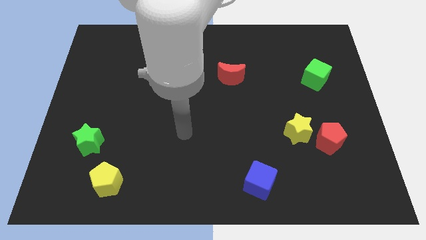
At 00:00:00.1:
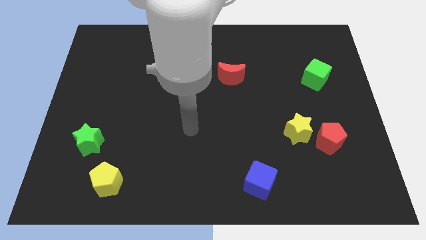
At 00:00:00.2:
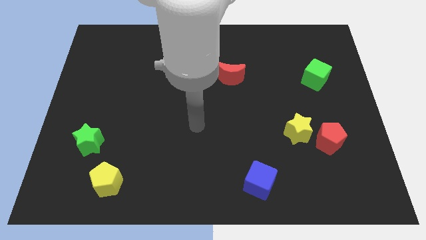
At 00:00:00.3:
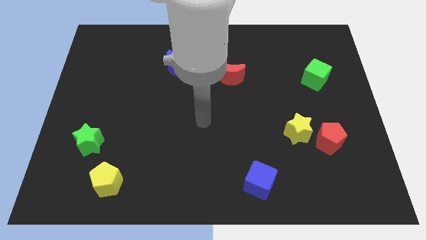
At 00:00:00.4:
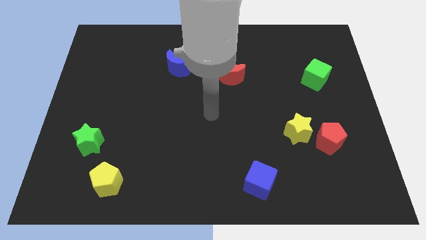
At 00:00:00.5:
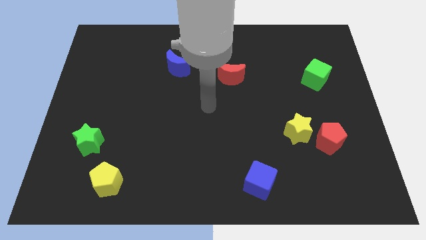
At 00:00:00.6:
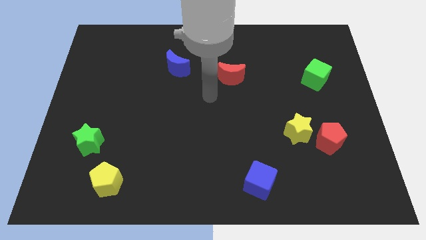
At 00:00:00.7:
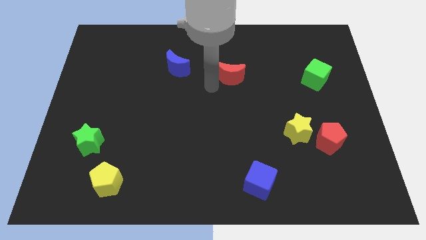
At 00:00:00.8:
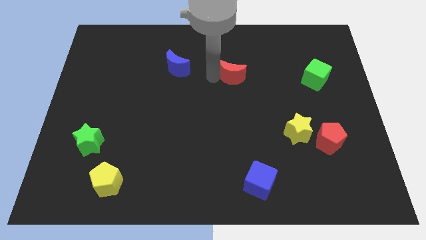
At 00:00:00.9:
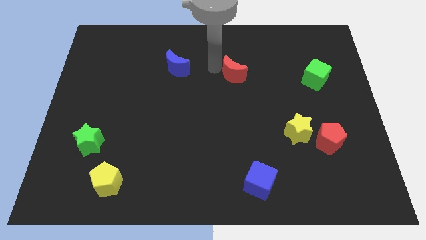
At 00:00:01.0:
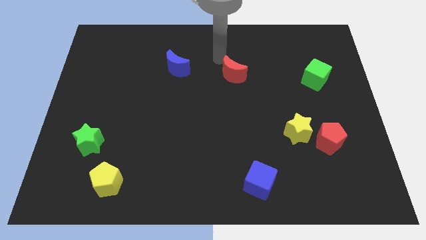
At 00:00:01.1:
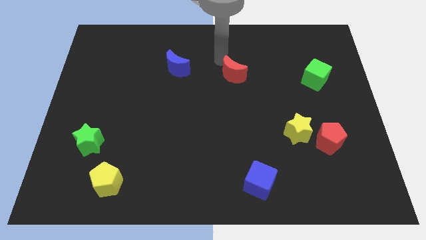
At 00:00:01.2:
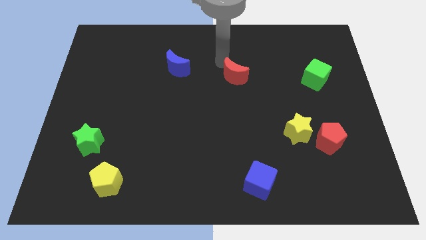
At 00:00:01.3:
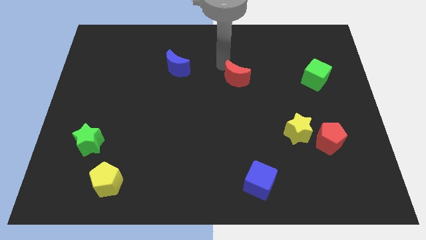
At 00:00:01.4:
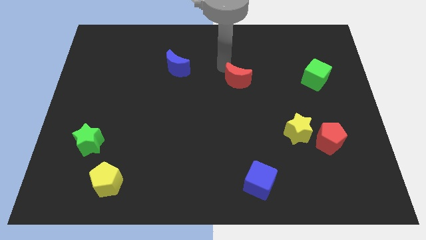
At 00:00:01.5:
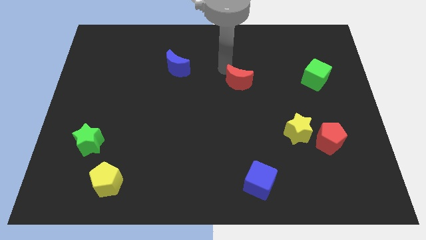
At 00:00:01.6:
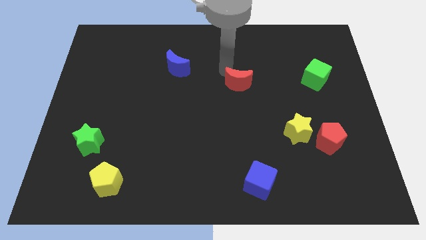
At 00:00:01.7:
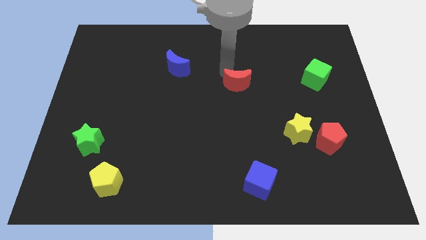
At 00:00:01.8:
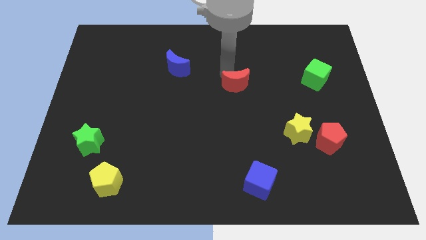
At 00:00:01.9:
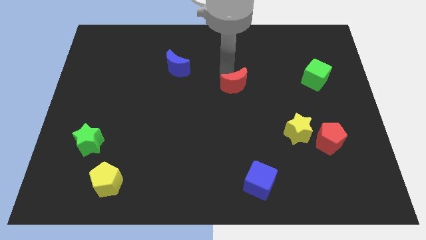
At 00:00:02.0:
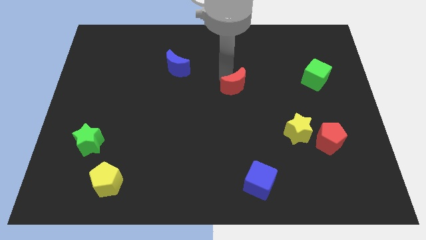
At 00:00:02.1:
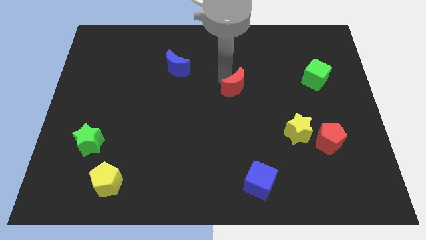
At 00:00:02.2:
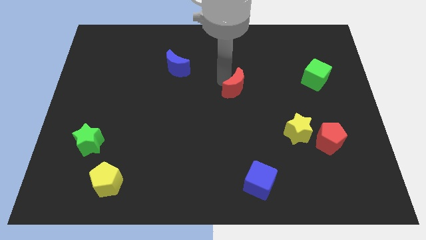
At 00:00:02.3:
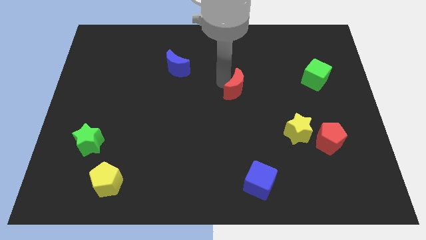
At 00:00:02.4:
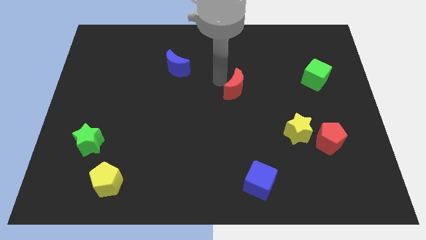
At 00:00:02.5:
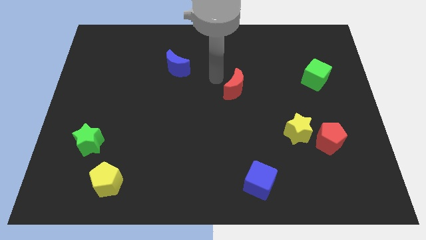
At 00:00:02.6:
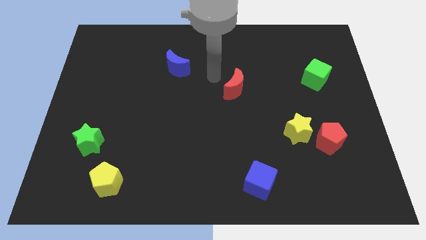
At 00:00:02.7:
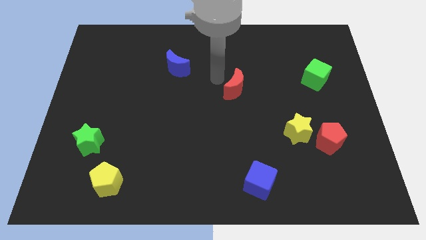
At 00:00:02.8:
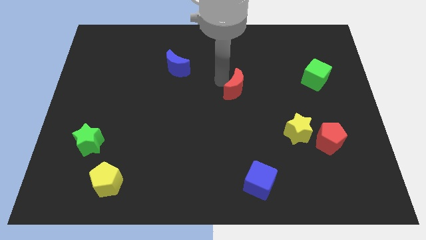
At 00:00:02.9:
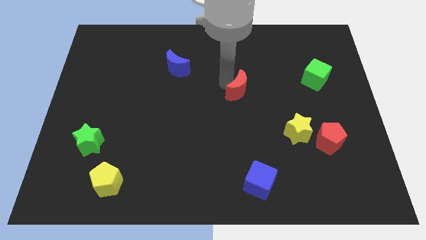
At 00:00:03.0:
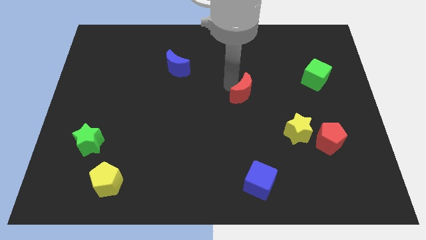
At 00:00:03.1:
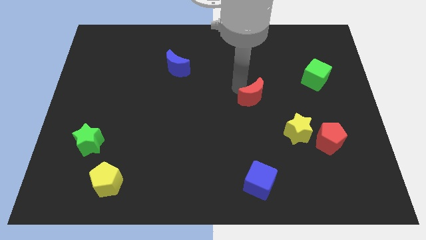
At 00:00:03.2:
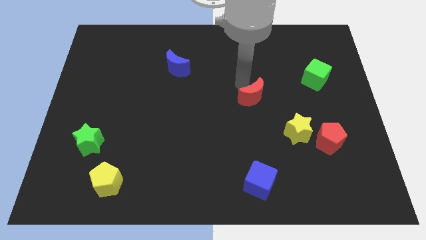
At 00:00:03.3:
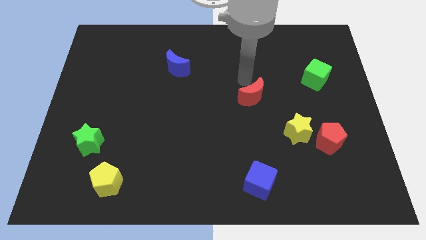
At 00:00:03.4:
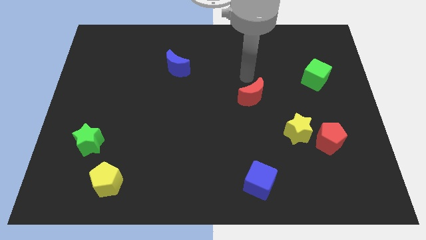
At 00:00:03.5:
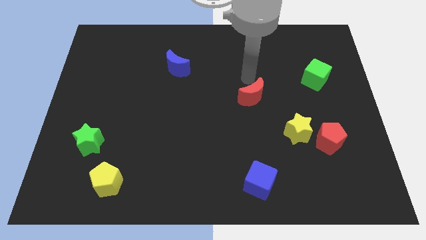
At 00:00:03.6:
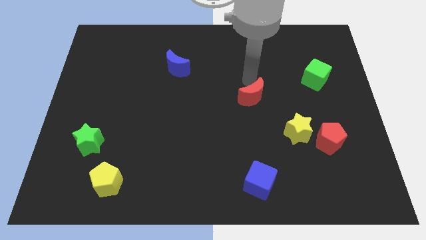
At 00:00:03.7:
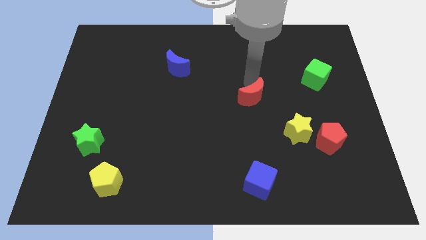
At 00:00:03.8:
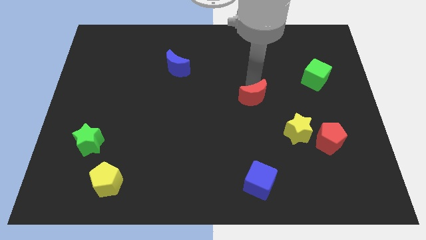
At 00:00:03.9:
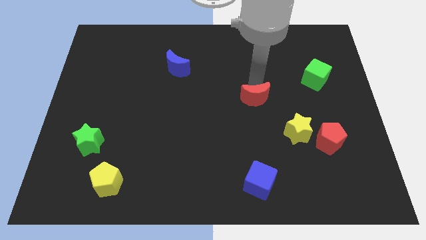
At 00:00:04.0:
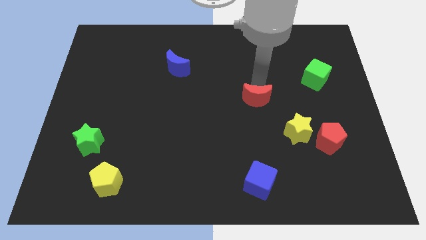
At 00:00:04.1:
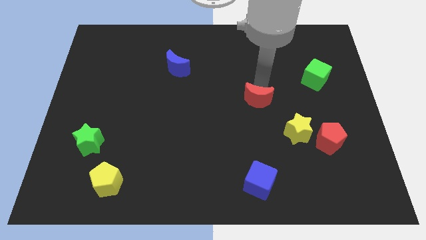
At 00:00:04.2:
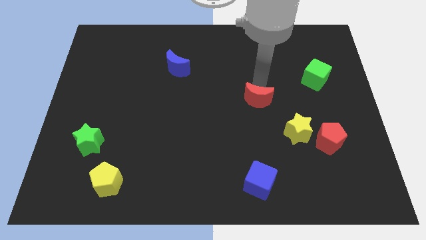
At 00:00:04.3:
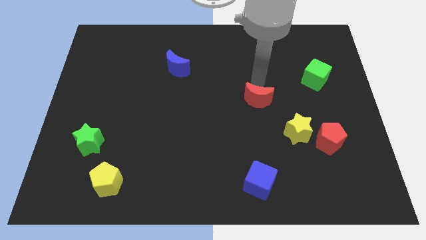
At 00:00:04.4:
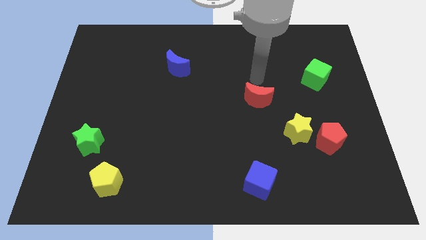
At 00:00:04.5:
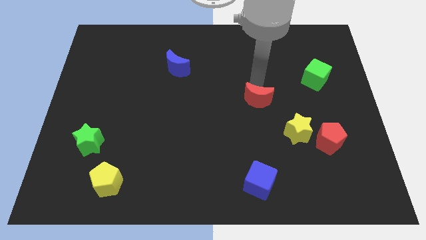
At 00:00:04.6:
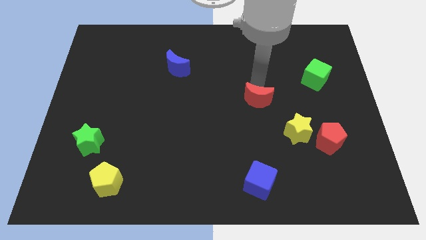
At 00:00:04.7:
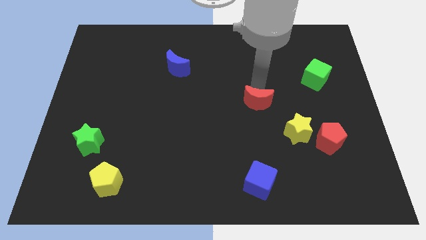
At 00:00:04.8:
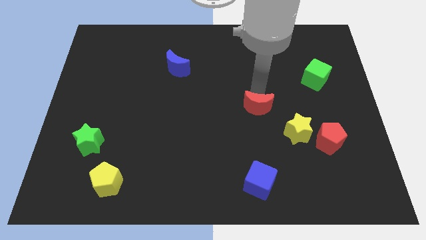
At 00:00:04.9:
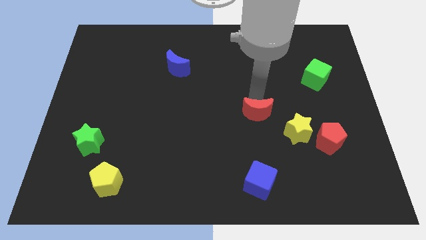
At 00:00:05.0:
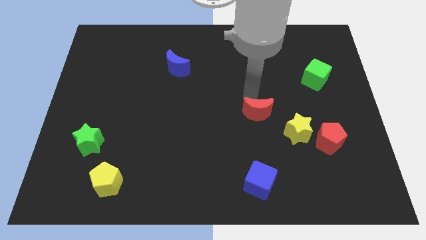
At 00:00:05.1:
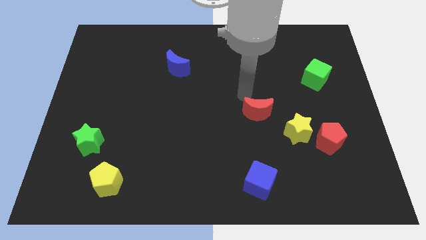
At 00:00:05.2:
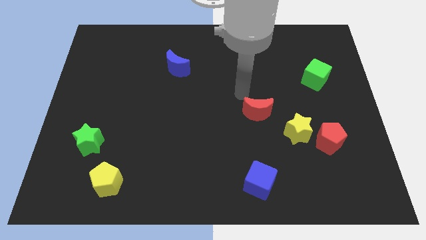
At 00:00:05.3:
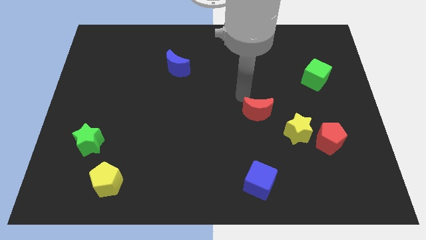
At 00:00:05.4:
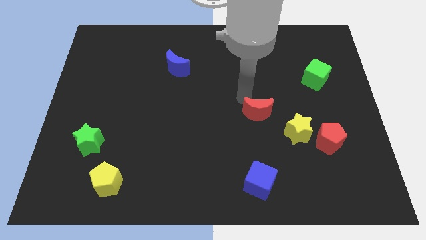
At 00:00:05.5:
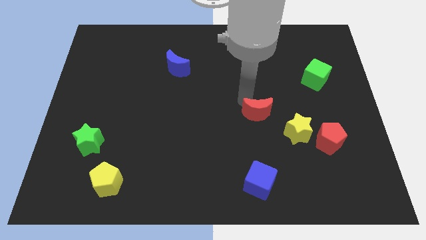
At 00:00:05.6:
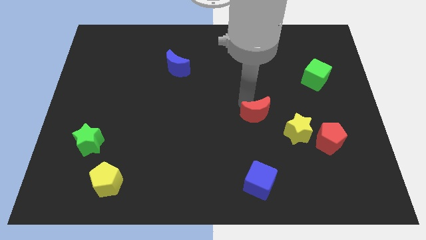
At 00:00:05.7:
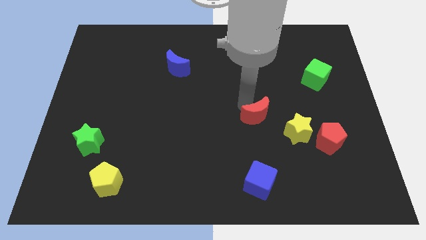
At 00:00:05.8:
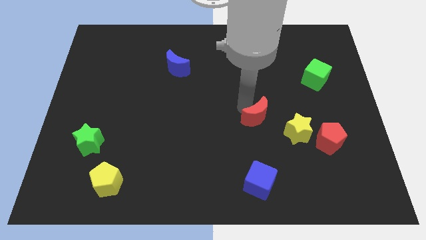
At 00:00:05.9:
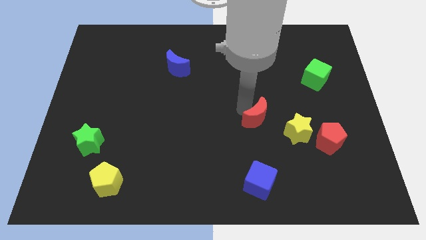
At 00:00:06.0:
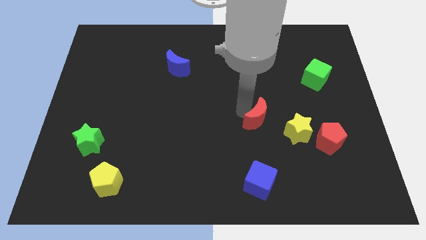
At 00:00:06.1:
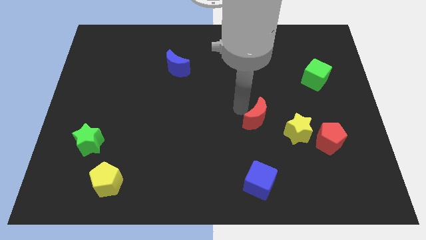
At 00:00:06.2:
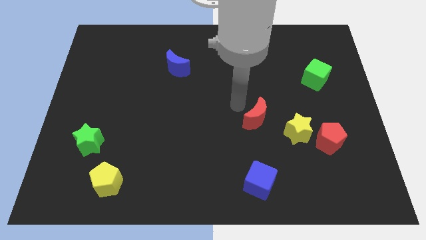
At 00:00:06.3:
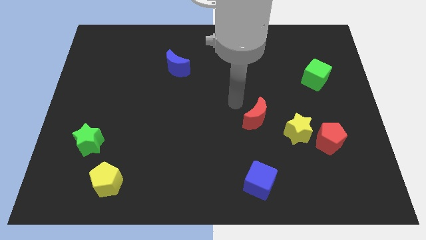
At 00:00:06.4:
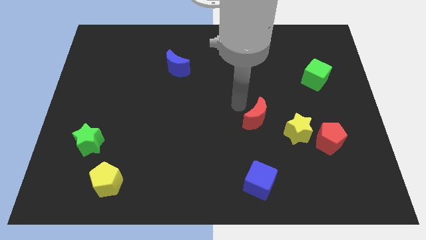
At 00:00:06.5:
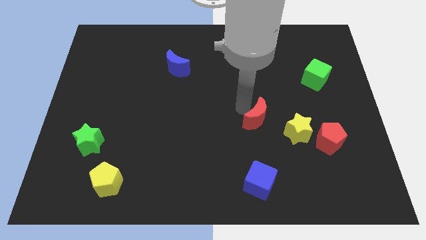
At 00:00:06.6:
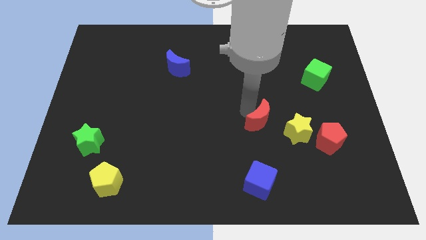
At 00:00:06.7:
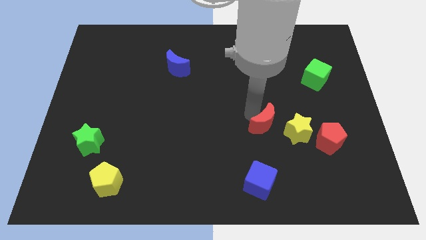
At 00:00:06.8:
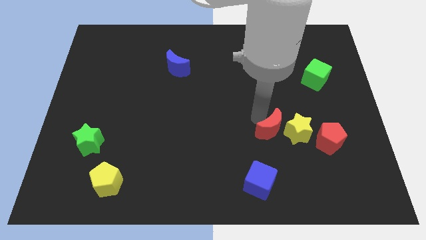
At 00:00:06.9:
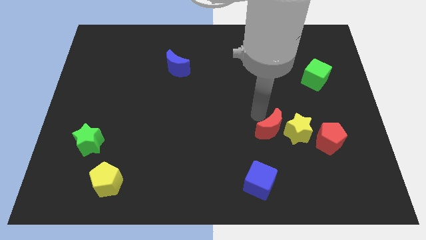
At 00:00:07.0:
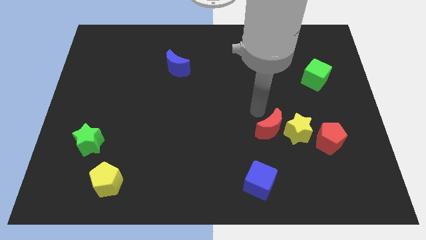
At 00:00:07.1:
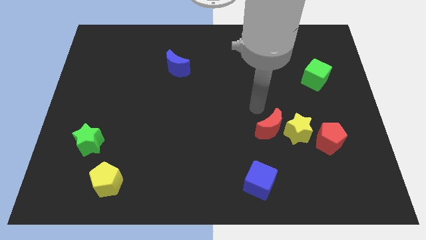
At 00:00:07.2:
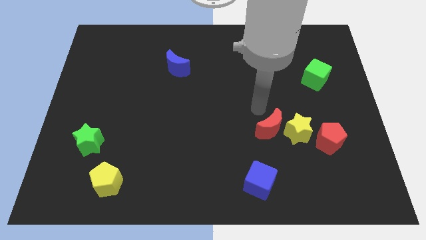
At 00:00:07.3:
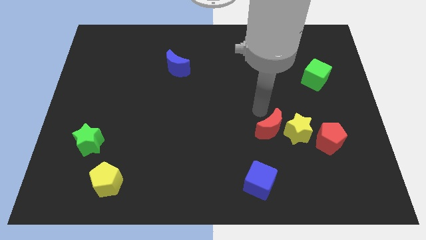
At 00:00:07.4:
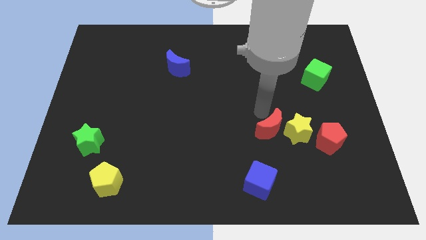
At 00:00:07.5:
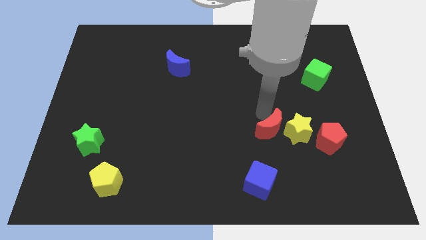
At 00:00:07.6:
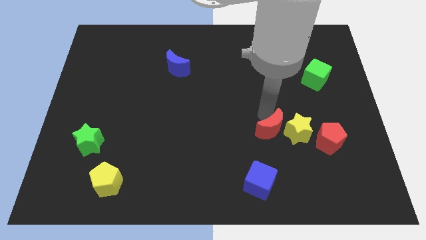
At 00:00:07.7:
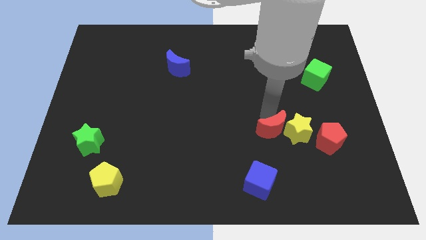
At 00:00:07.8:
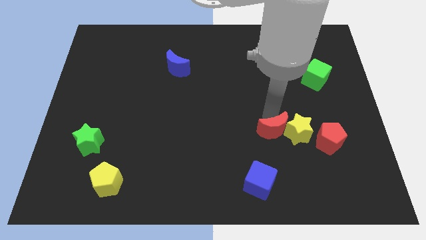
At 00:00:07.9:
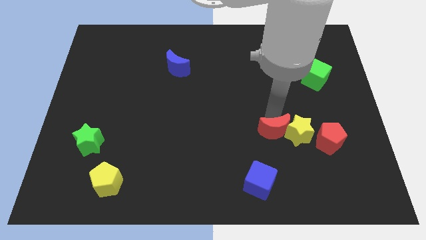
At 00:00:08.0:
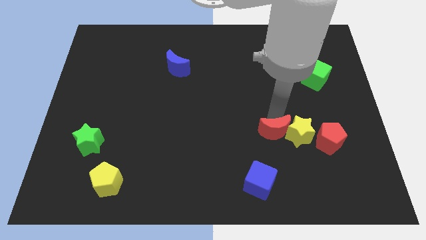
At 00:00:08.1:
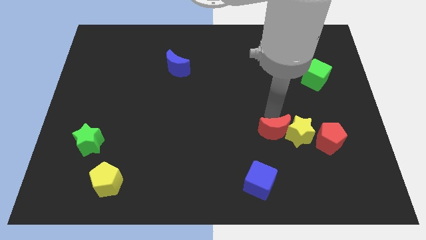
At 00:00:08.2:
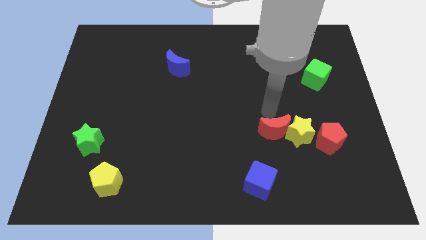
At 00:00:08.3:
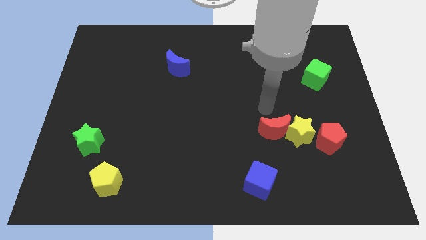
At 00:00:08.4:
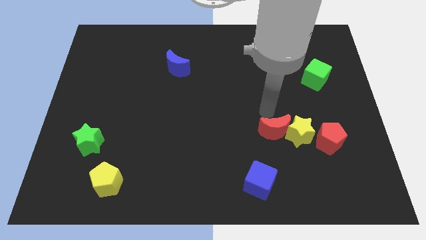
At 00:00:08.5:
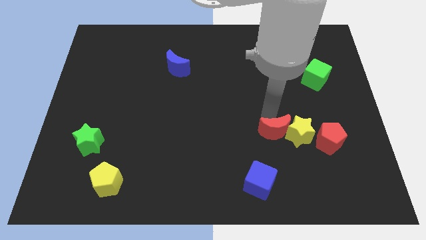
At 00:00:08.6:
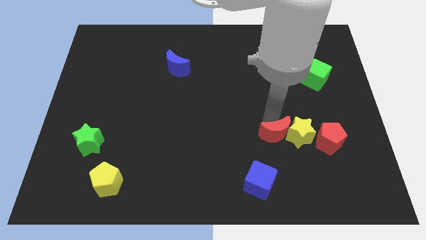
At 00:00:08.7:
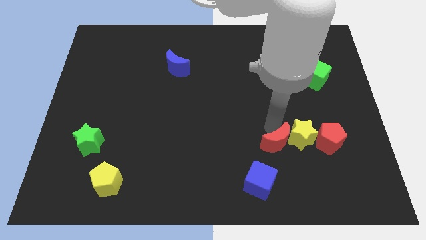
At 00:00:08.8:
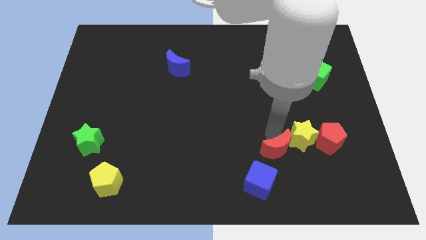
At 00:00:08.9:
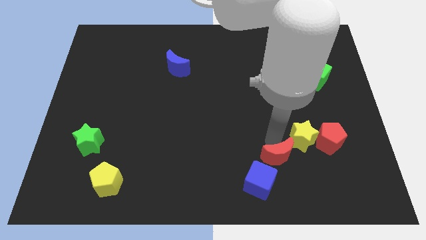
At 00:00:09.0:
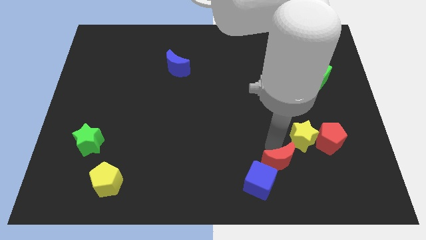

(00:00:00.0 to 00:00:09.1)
move the red moon to the right of the blue cube
